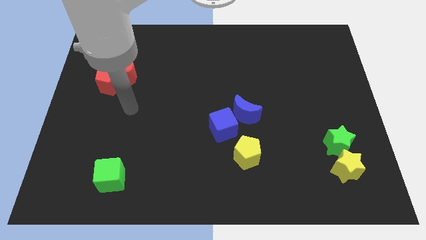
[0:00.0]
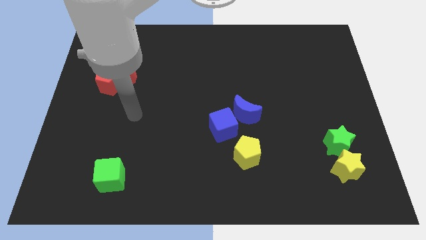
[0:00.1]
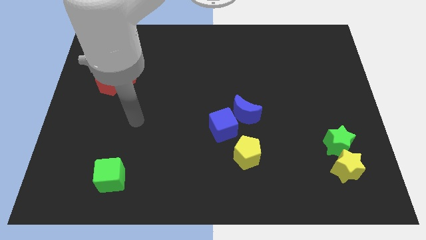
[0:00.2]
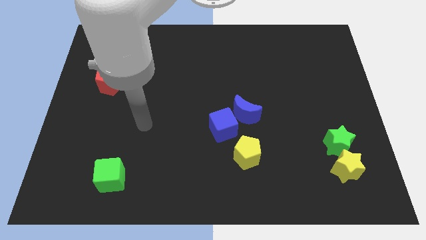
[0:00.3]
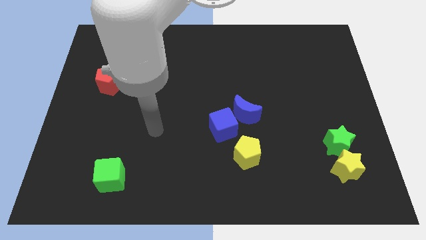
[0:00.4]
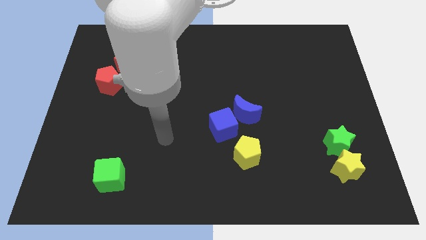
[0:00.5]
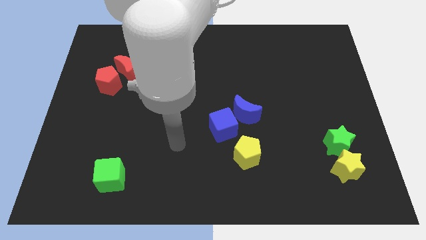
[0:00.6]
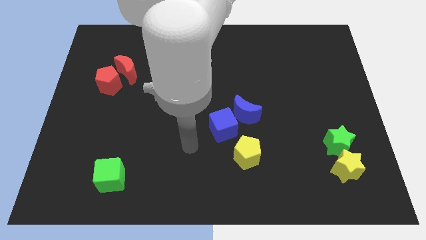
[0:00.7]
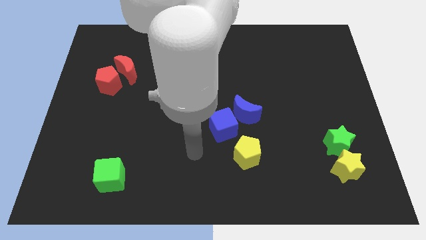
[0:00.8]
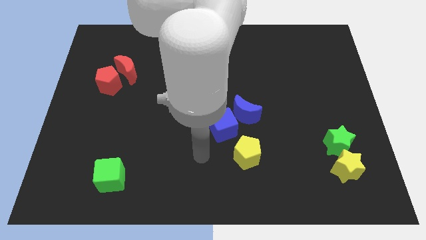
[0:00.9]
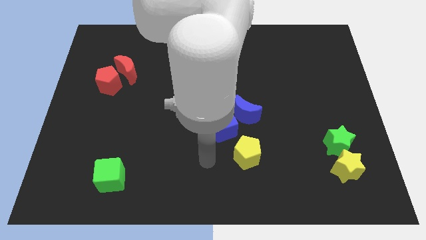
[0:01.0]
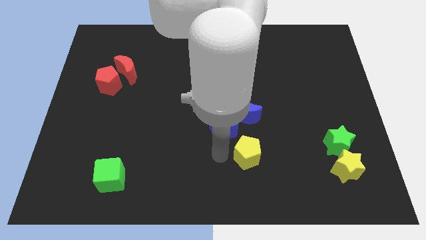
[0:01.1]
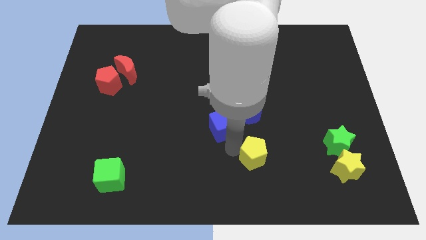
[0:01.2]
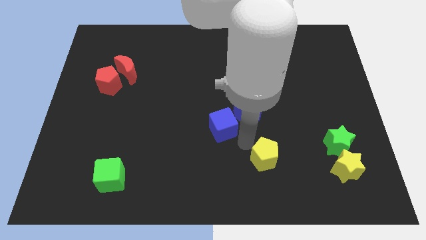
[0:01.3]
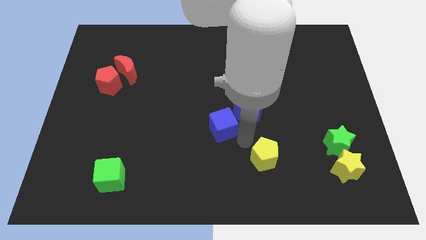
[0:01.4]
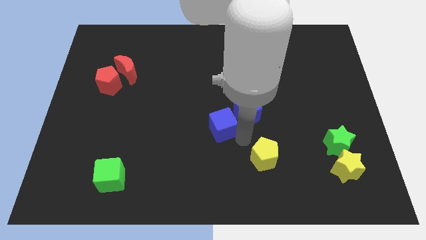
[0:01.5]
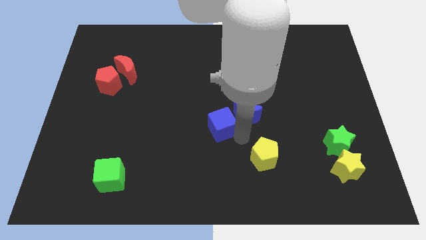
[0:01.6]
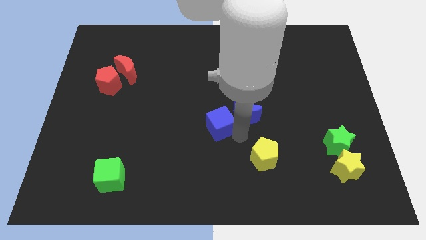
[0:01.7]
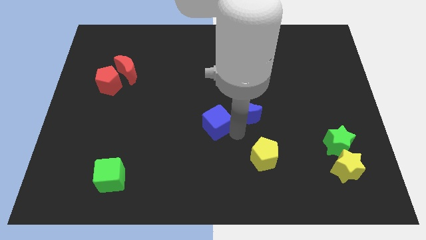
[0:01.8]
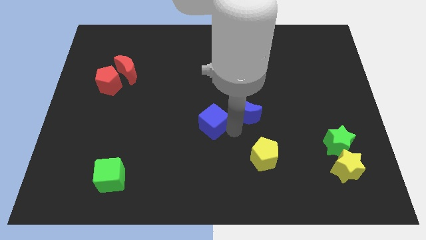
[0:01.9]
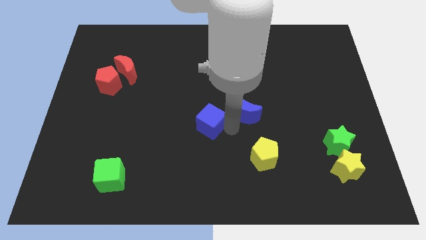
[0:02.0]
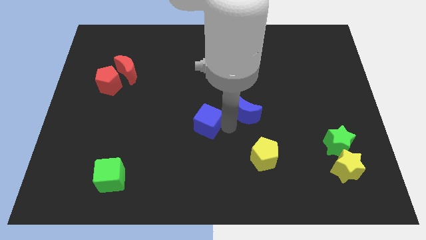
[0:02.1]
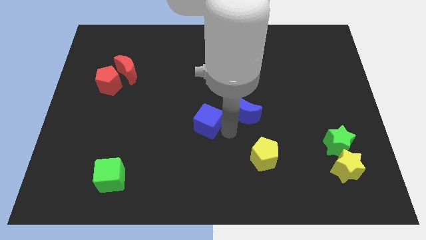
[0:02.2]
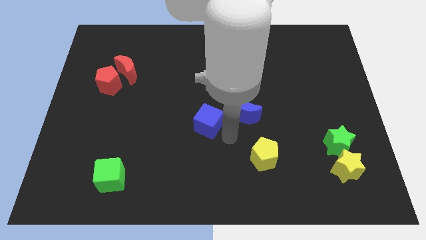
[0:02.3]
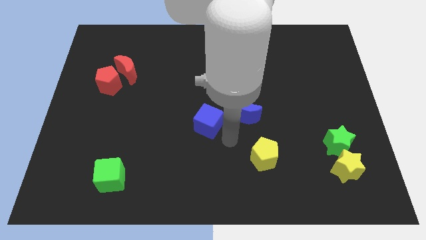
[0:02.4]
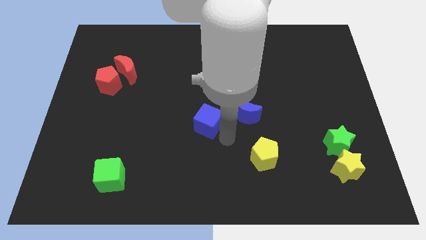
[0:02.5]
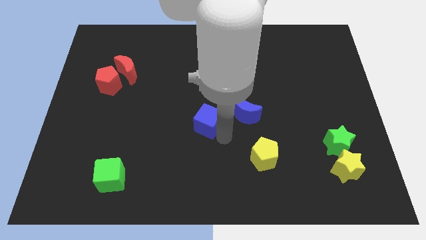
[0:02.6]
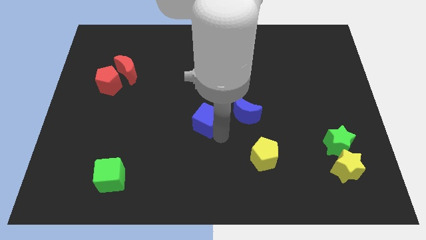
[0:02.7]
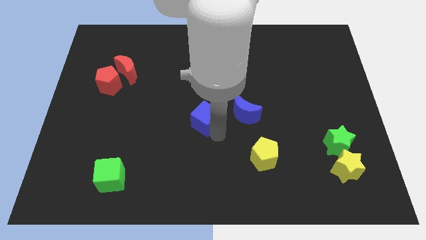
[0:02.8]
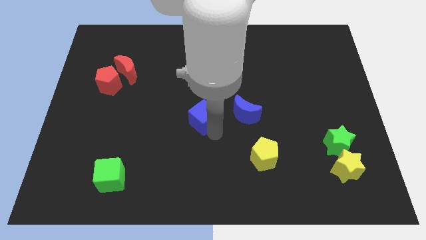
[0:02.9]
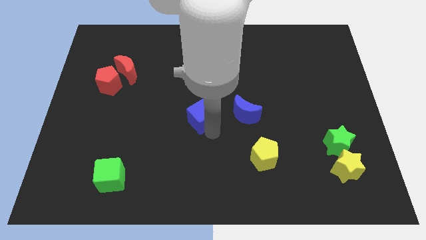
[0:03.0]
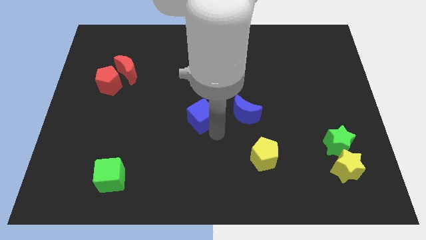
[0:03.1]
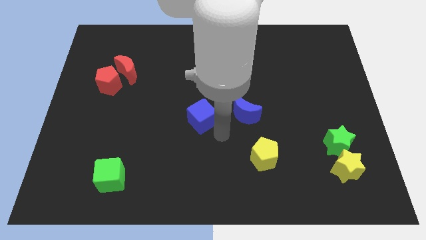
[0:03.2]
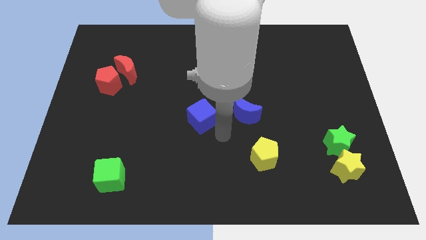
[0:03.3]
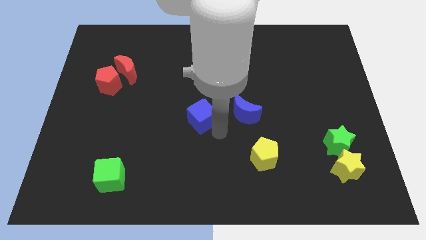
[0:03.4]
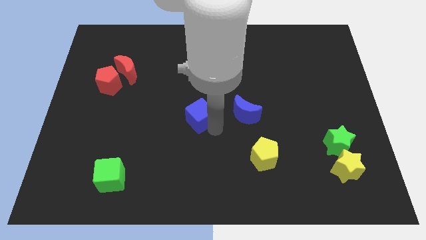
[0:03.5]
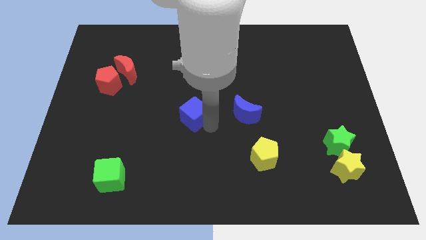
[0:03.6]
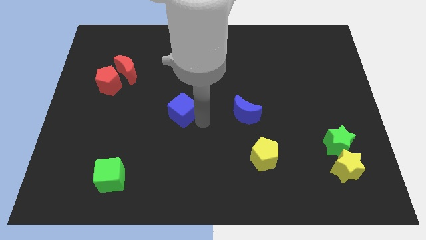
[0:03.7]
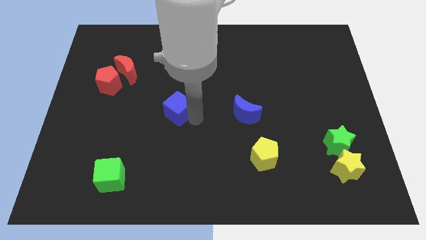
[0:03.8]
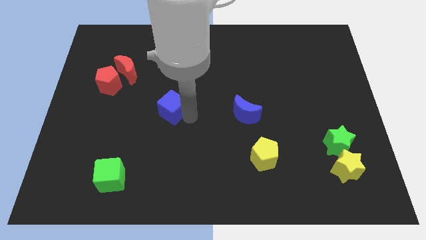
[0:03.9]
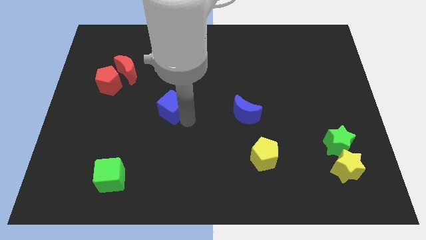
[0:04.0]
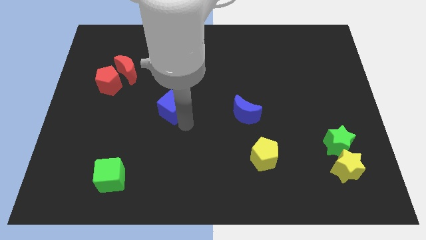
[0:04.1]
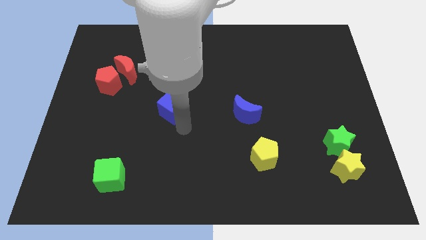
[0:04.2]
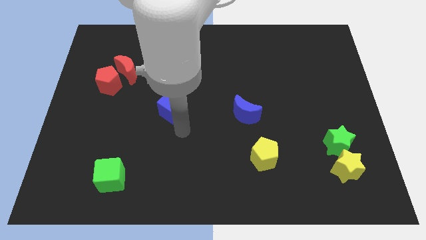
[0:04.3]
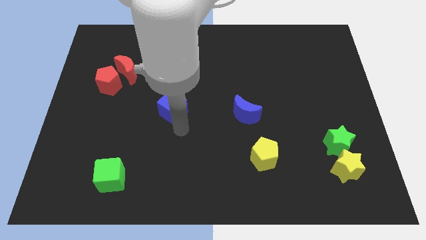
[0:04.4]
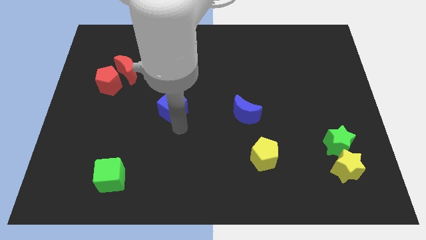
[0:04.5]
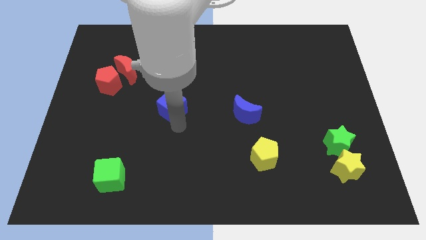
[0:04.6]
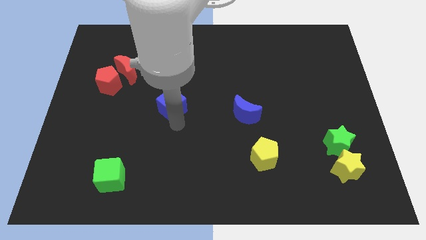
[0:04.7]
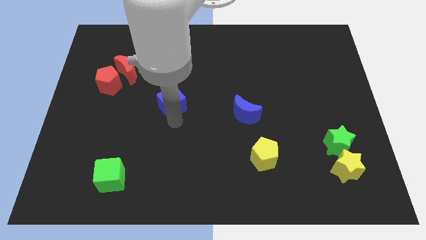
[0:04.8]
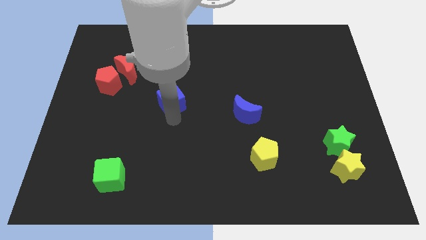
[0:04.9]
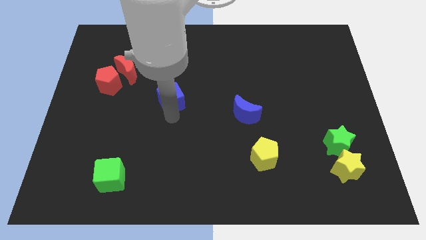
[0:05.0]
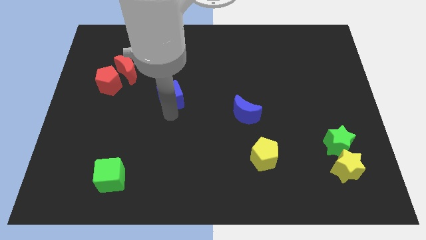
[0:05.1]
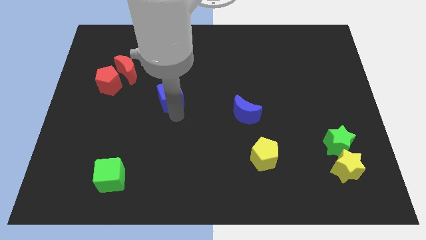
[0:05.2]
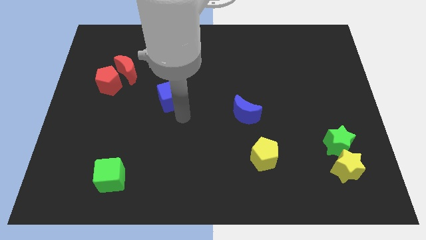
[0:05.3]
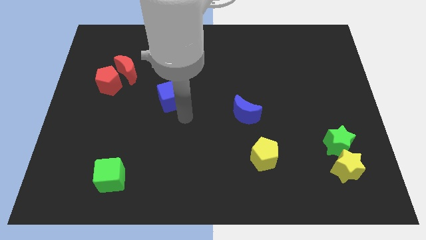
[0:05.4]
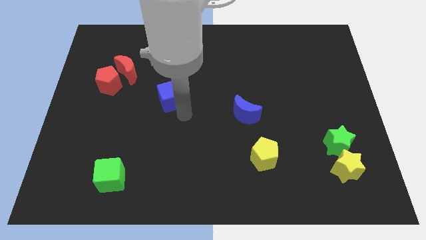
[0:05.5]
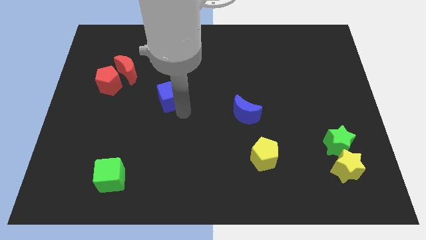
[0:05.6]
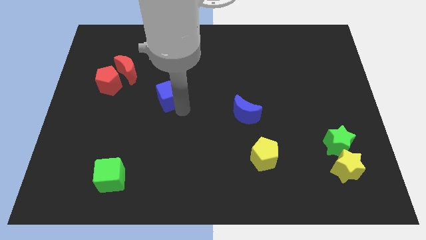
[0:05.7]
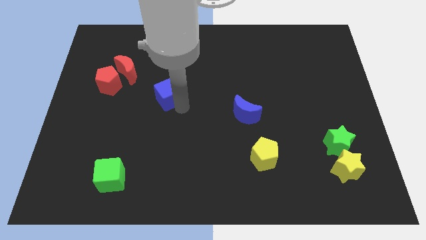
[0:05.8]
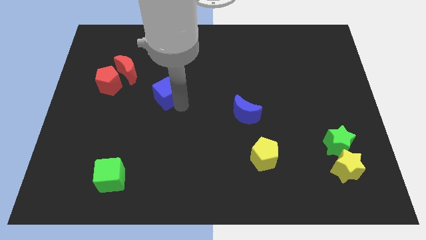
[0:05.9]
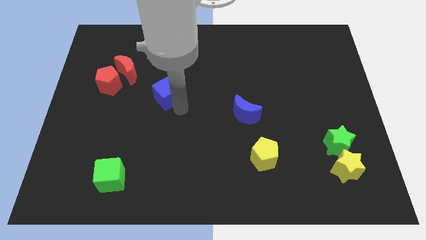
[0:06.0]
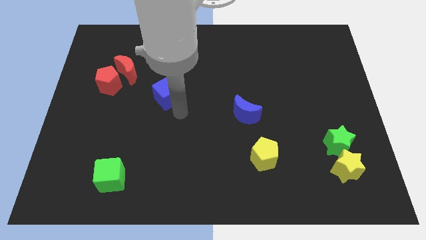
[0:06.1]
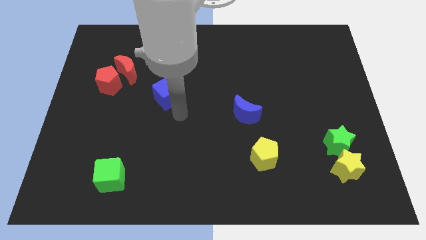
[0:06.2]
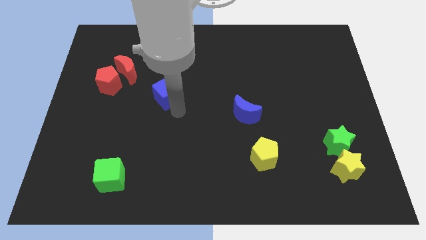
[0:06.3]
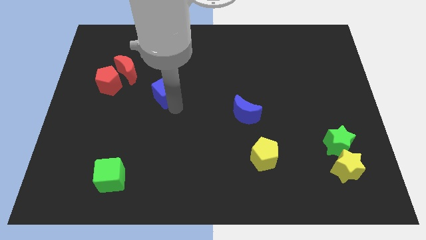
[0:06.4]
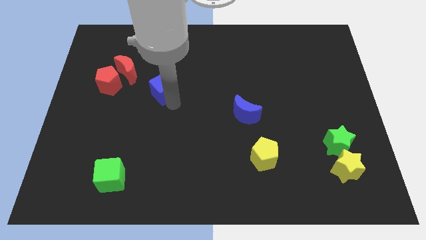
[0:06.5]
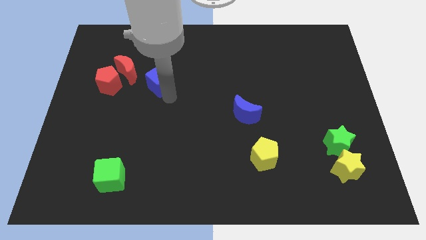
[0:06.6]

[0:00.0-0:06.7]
push the blue cube upwards and then left

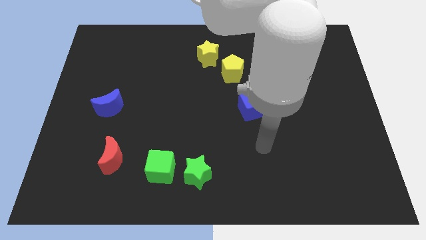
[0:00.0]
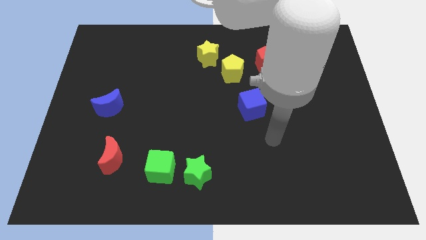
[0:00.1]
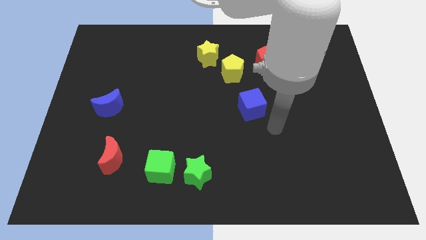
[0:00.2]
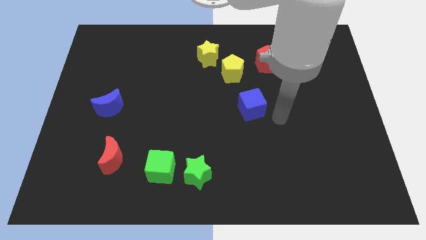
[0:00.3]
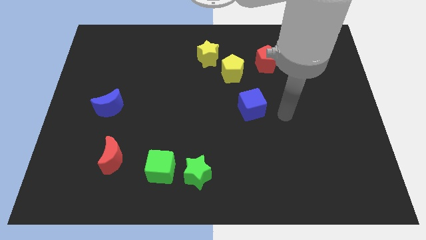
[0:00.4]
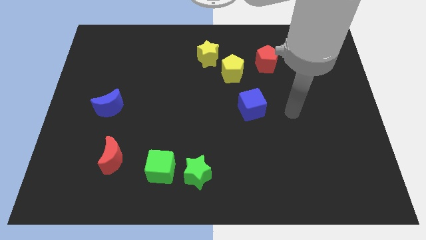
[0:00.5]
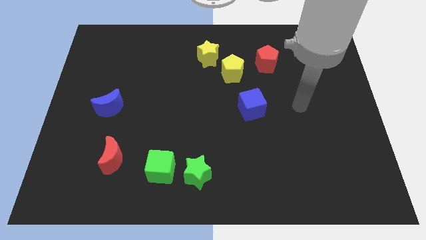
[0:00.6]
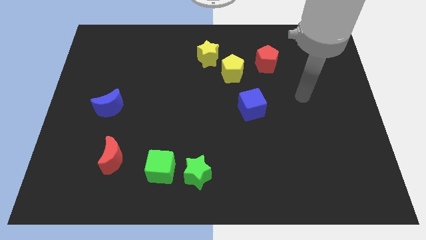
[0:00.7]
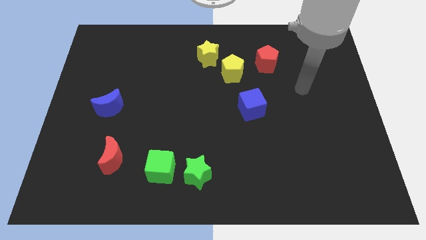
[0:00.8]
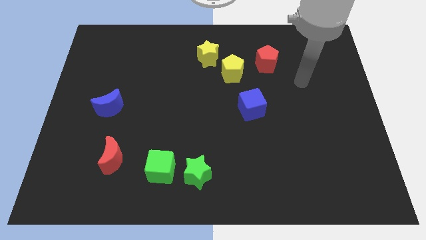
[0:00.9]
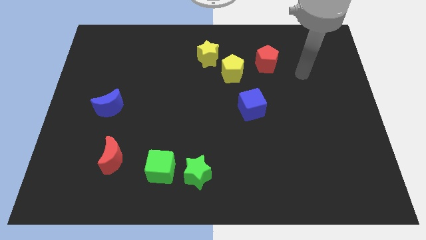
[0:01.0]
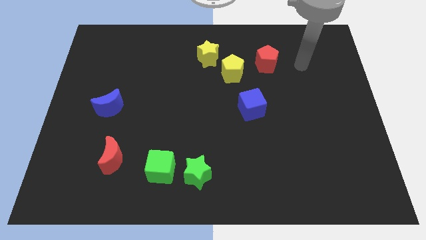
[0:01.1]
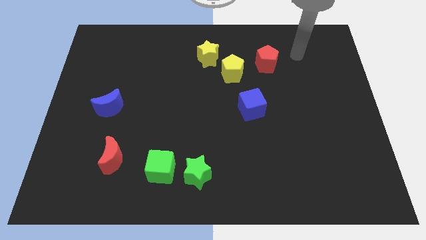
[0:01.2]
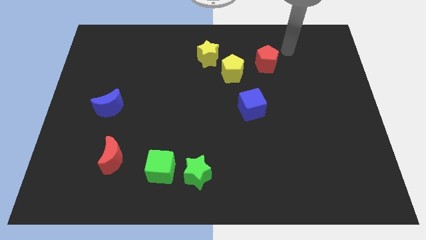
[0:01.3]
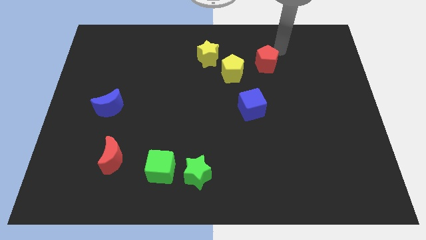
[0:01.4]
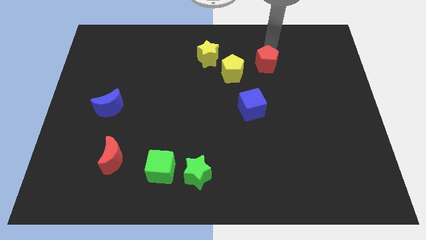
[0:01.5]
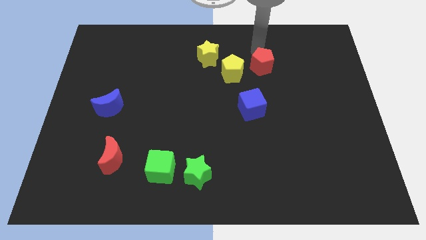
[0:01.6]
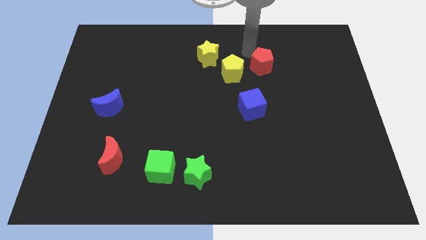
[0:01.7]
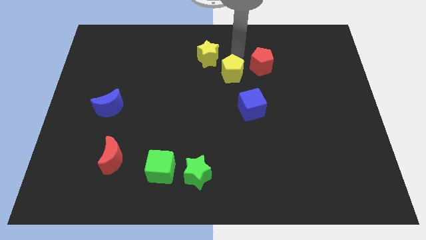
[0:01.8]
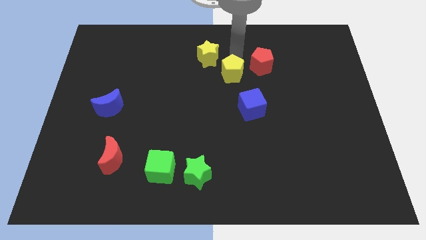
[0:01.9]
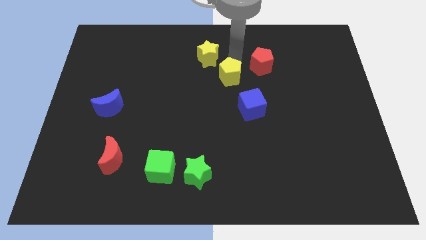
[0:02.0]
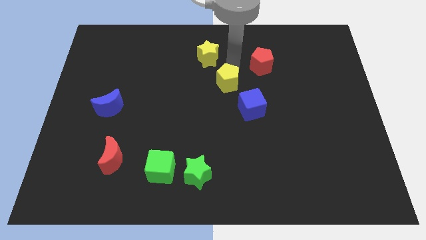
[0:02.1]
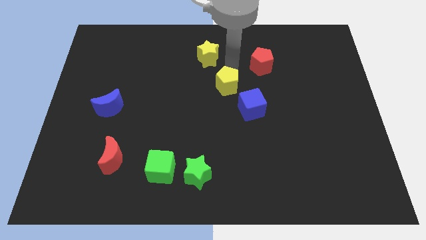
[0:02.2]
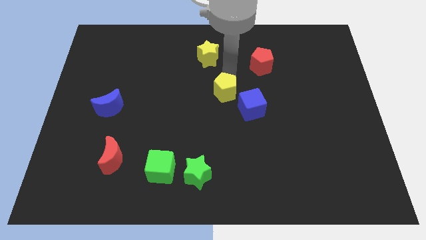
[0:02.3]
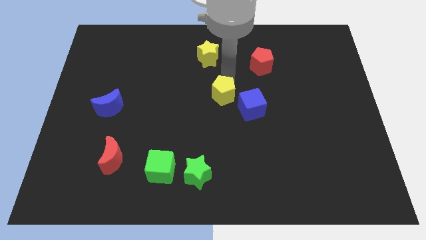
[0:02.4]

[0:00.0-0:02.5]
push the yellow pentagon slightly down
